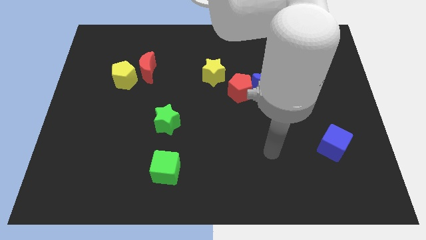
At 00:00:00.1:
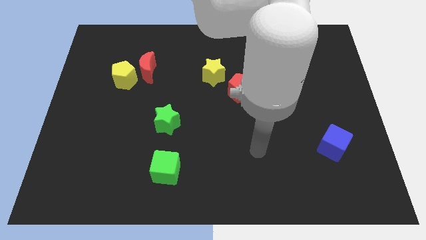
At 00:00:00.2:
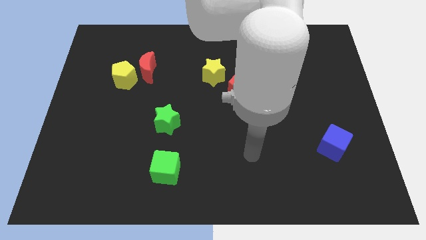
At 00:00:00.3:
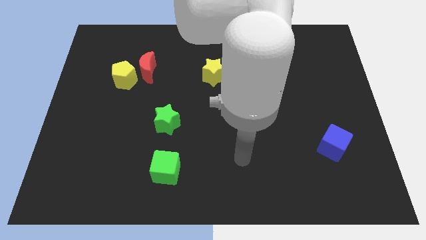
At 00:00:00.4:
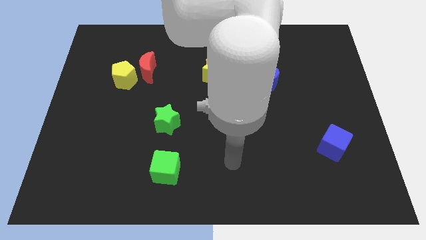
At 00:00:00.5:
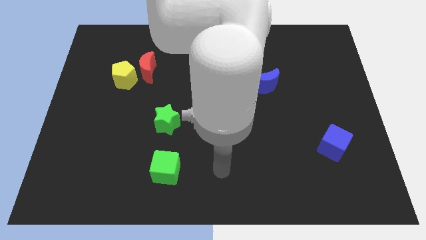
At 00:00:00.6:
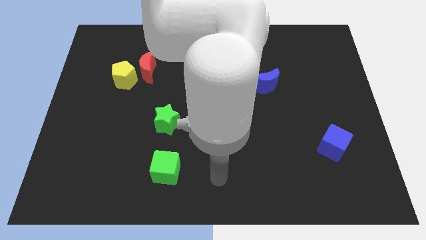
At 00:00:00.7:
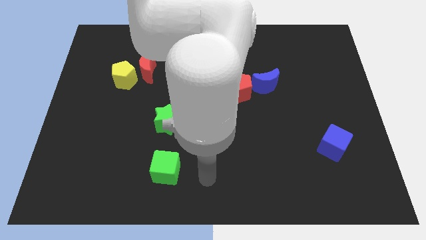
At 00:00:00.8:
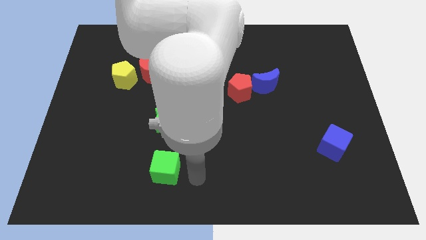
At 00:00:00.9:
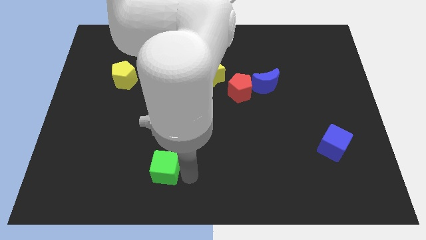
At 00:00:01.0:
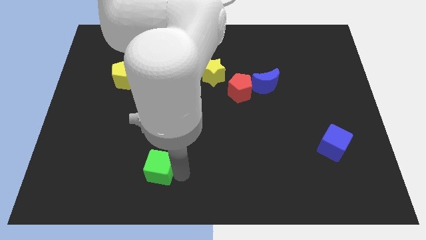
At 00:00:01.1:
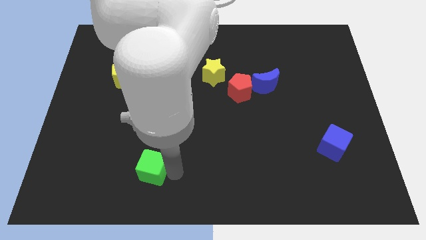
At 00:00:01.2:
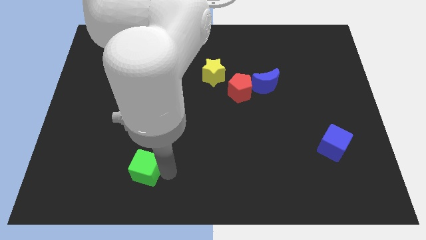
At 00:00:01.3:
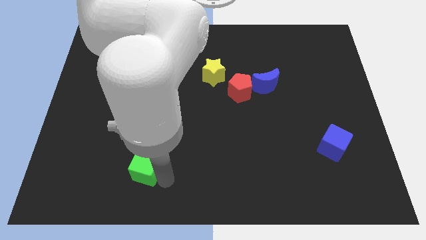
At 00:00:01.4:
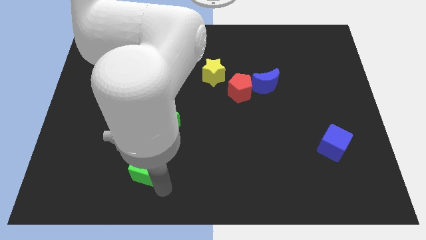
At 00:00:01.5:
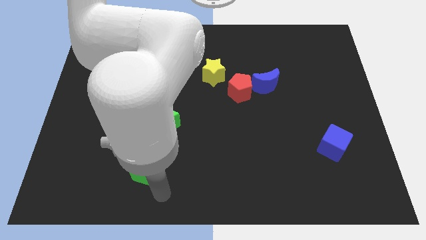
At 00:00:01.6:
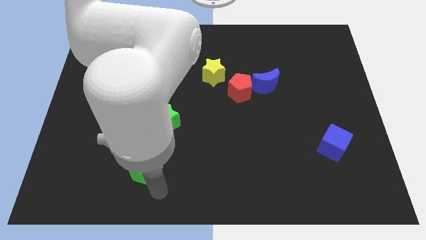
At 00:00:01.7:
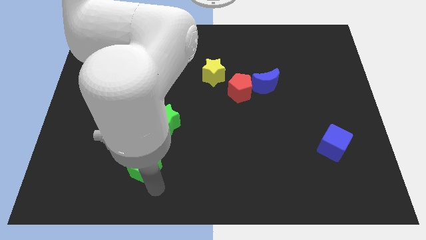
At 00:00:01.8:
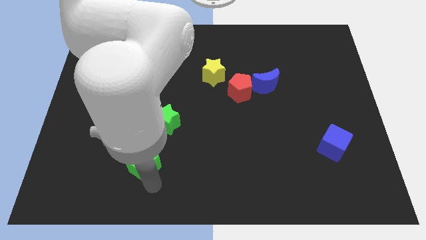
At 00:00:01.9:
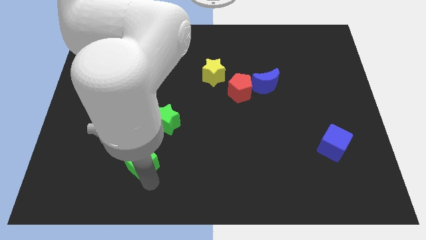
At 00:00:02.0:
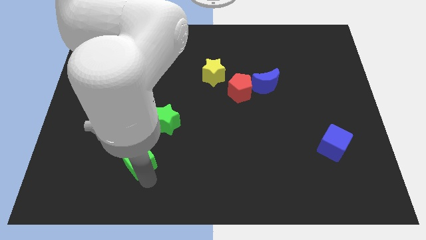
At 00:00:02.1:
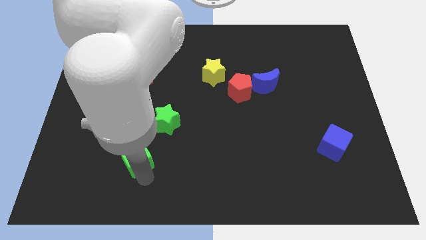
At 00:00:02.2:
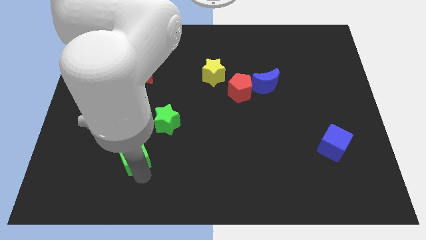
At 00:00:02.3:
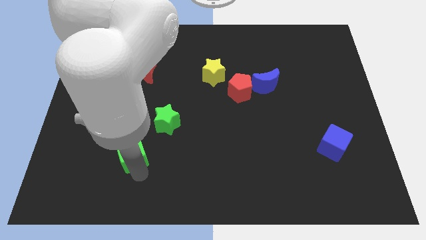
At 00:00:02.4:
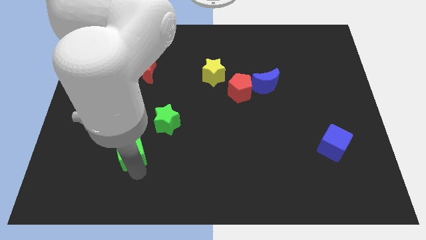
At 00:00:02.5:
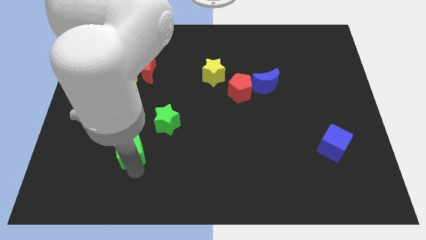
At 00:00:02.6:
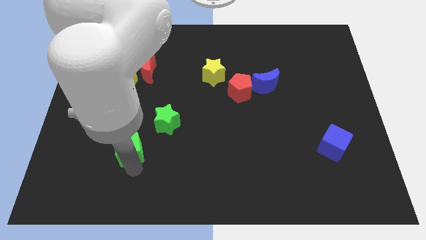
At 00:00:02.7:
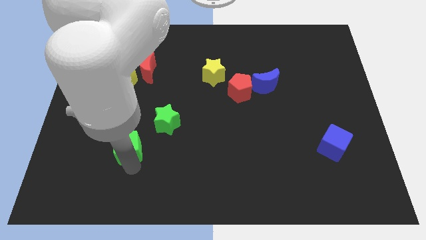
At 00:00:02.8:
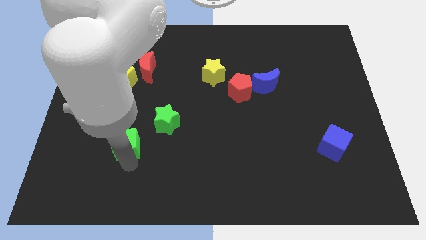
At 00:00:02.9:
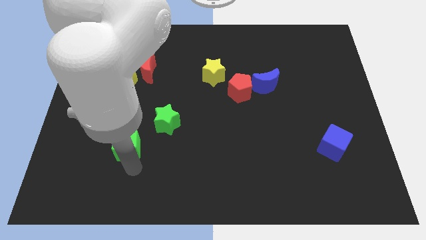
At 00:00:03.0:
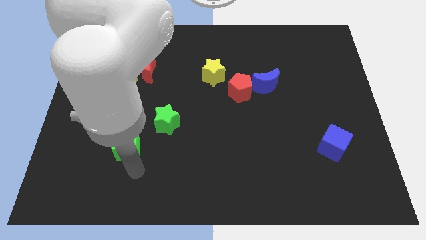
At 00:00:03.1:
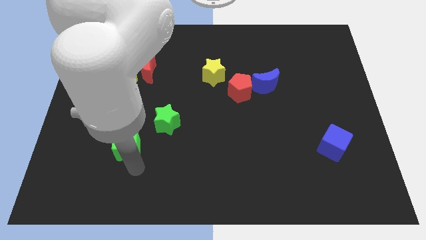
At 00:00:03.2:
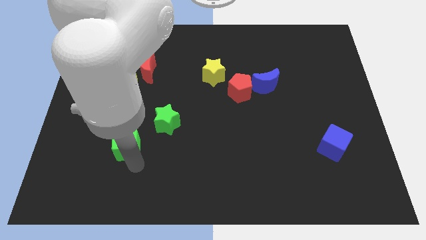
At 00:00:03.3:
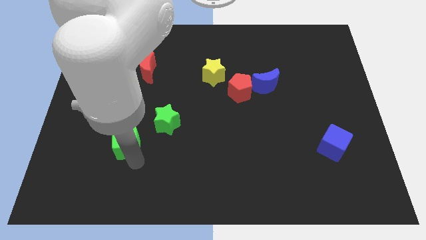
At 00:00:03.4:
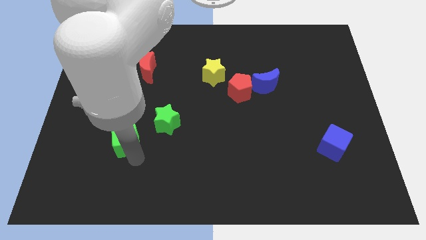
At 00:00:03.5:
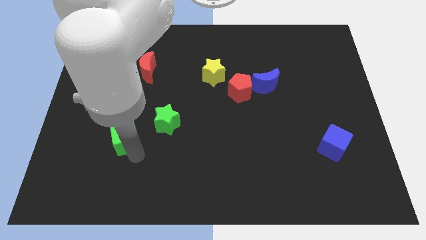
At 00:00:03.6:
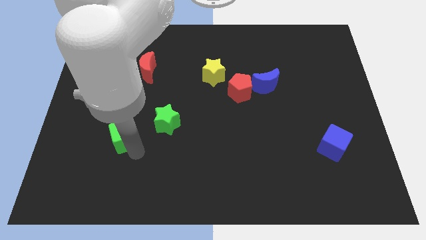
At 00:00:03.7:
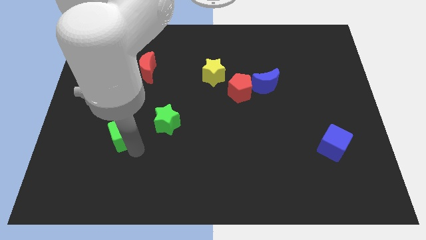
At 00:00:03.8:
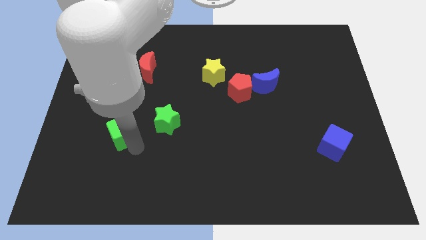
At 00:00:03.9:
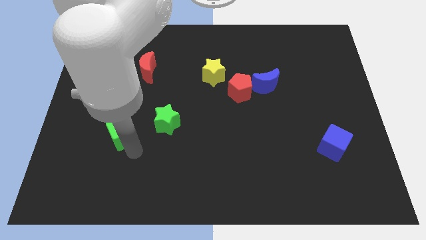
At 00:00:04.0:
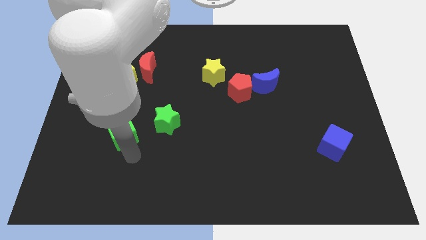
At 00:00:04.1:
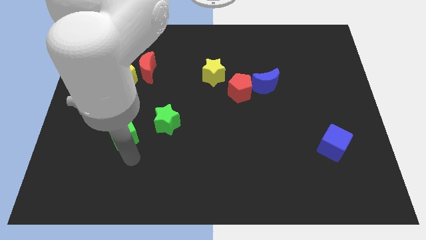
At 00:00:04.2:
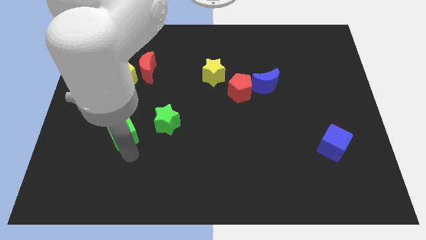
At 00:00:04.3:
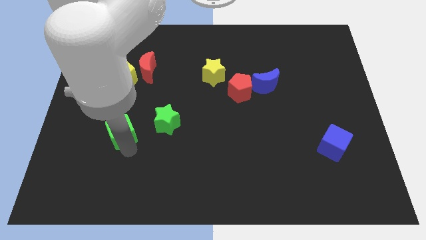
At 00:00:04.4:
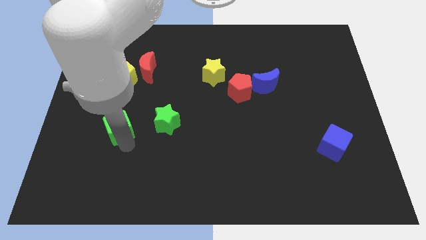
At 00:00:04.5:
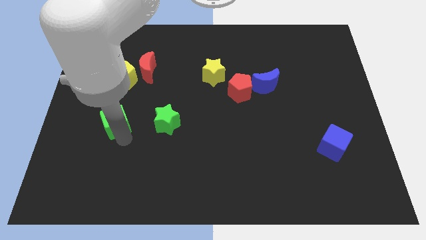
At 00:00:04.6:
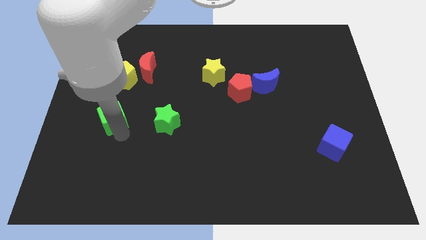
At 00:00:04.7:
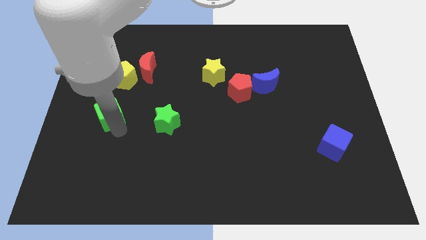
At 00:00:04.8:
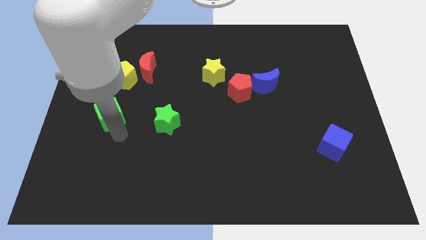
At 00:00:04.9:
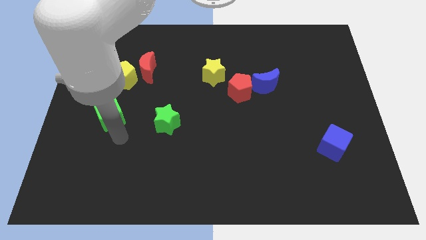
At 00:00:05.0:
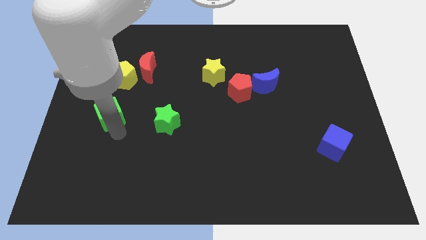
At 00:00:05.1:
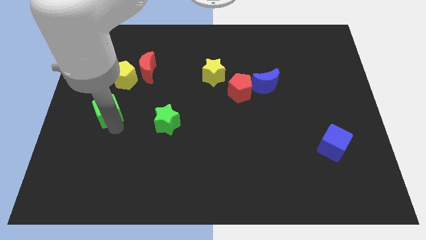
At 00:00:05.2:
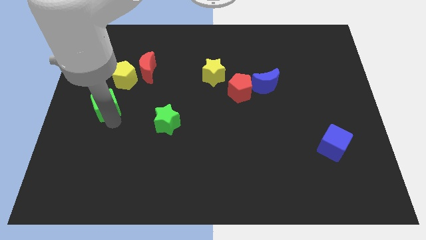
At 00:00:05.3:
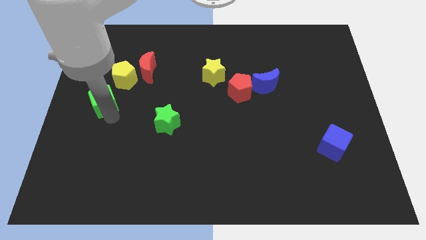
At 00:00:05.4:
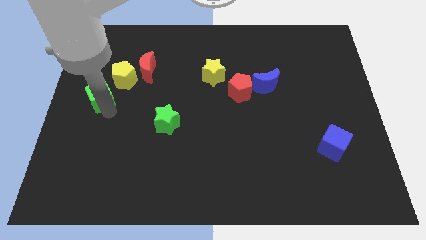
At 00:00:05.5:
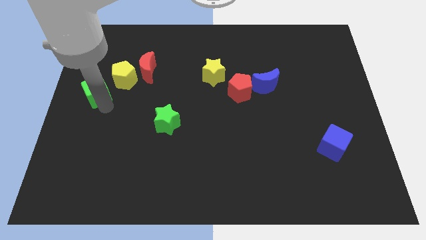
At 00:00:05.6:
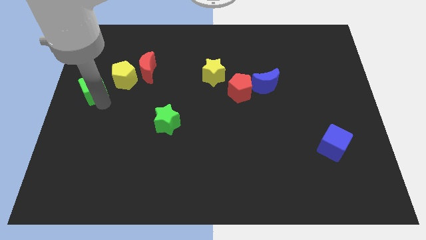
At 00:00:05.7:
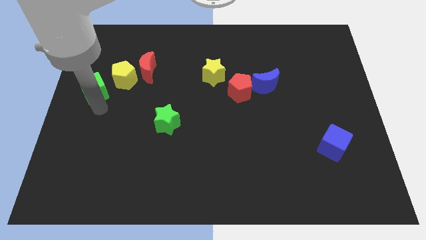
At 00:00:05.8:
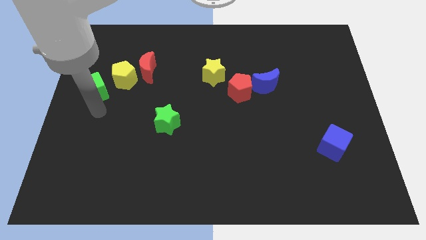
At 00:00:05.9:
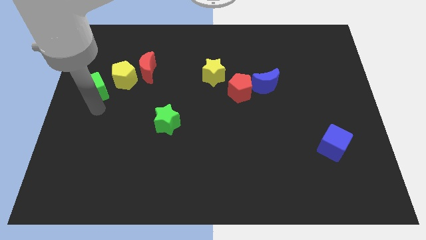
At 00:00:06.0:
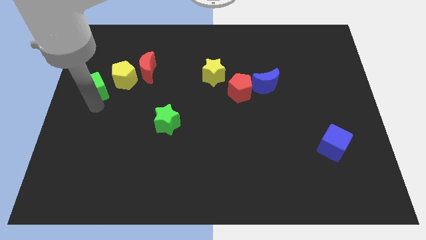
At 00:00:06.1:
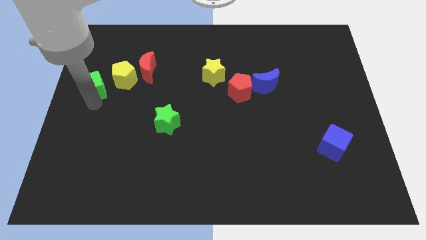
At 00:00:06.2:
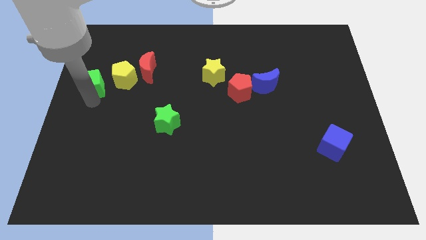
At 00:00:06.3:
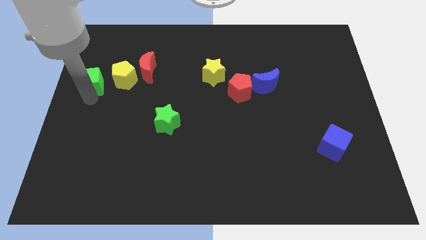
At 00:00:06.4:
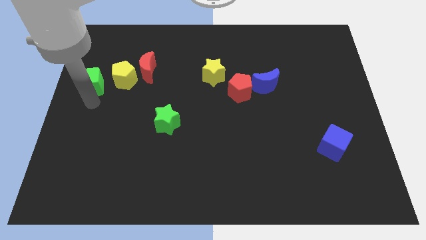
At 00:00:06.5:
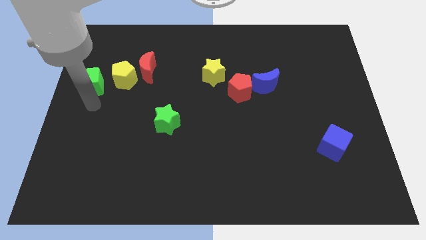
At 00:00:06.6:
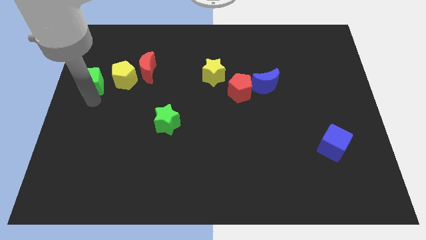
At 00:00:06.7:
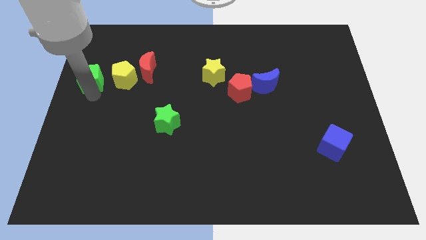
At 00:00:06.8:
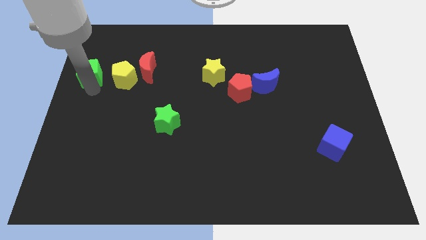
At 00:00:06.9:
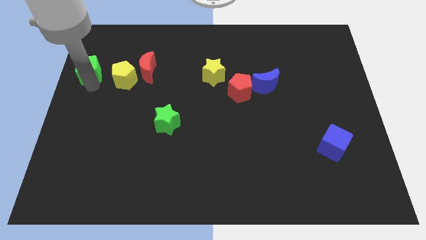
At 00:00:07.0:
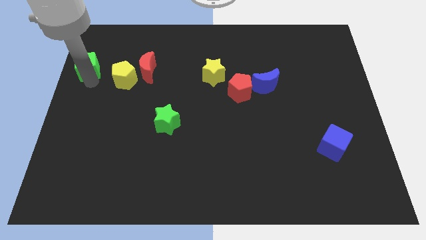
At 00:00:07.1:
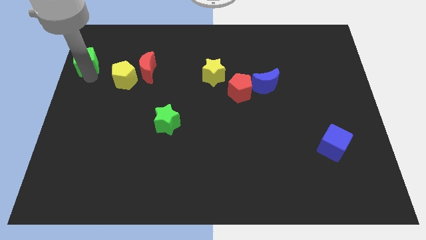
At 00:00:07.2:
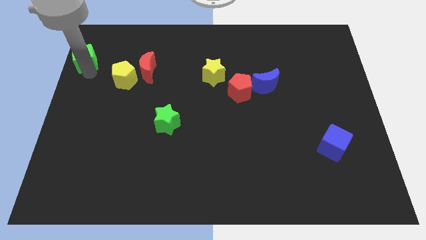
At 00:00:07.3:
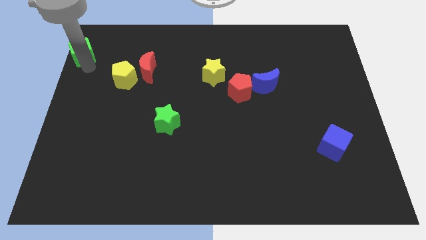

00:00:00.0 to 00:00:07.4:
push the green cube to the top left of the board
